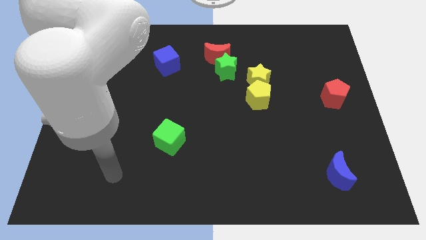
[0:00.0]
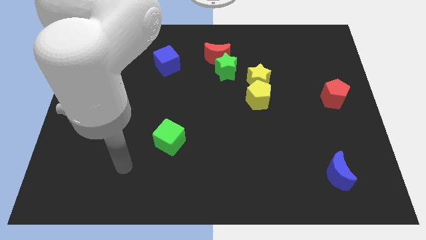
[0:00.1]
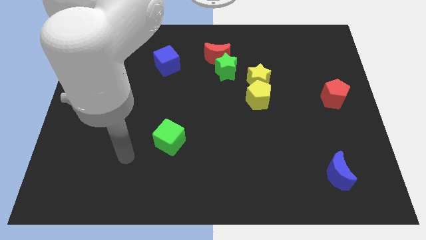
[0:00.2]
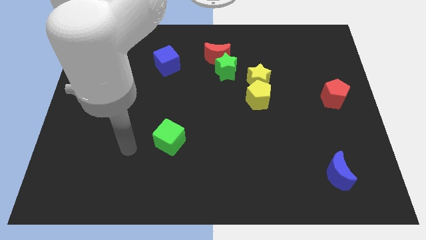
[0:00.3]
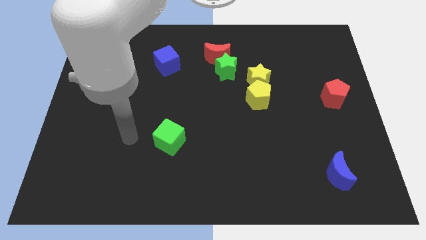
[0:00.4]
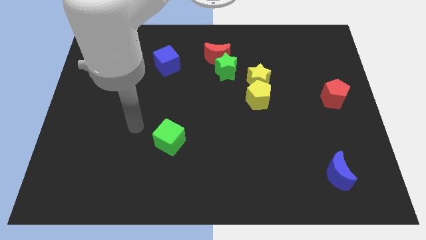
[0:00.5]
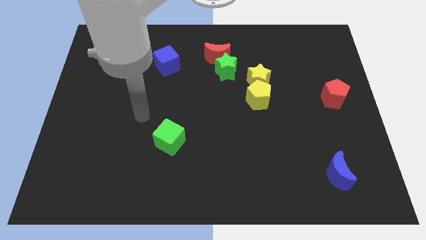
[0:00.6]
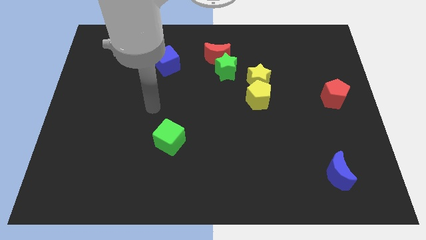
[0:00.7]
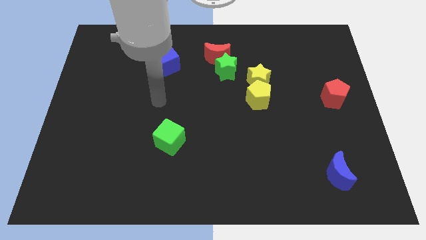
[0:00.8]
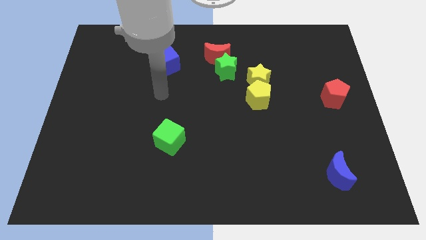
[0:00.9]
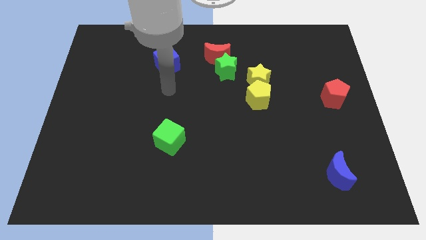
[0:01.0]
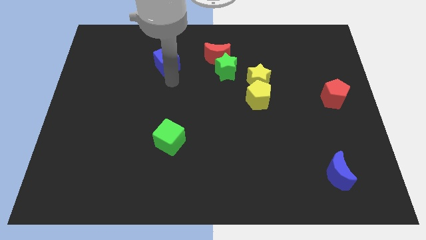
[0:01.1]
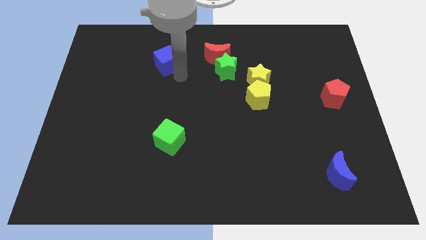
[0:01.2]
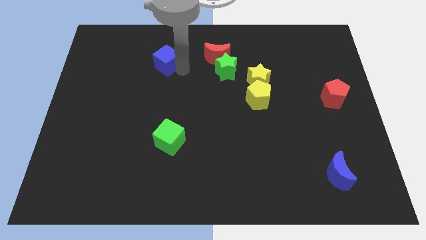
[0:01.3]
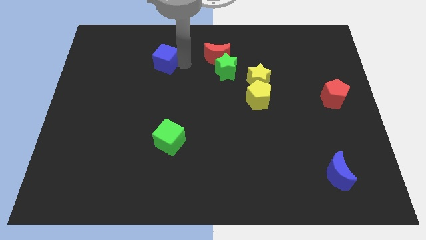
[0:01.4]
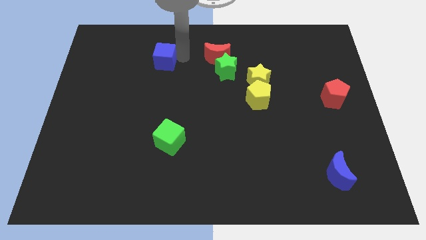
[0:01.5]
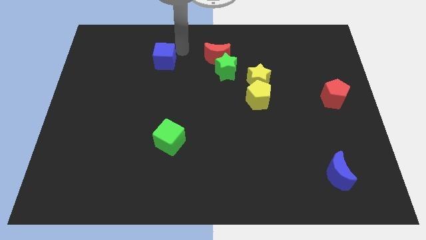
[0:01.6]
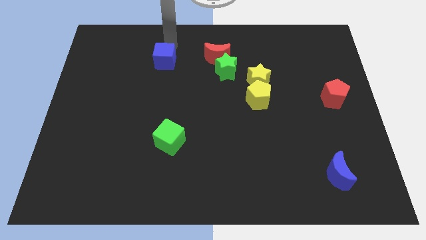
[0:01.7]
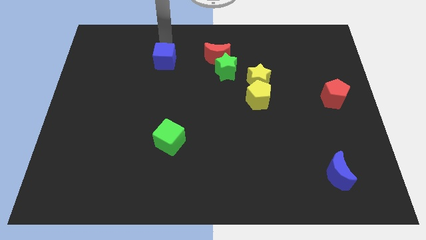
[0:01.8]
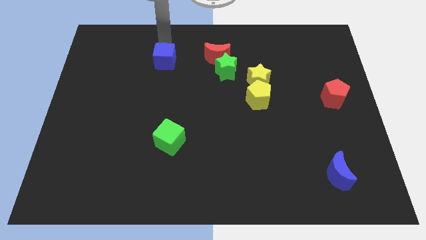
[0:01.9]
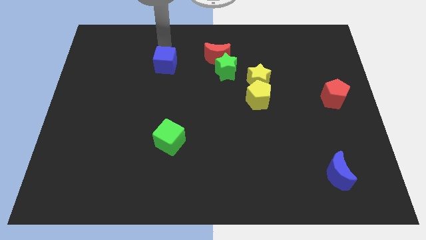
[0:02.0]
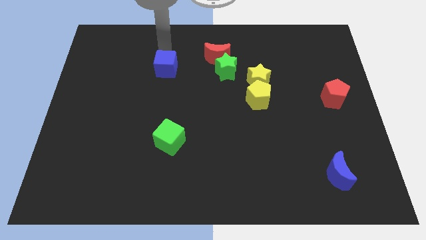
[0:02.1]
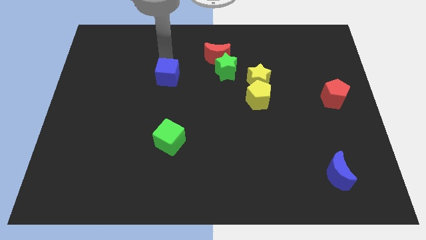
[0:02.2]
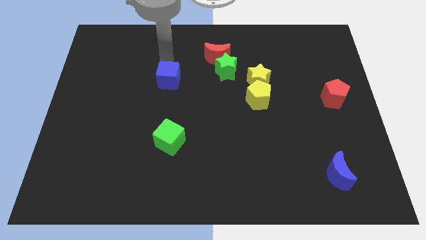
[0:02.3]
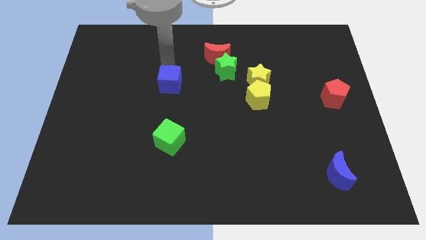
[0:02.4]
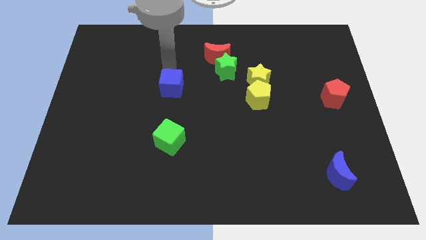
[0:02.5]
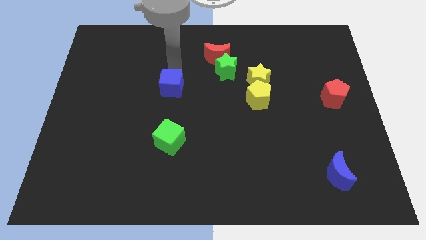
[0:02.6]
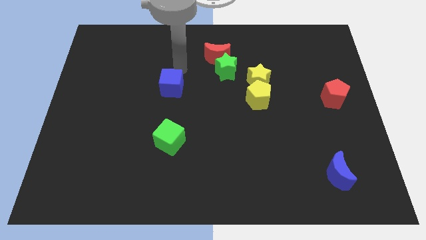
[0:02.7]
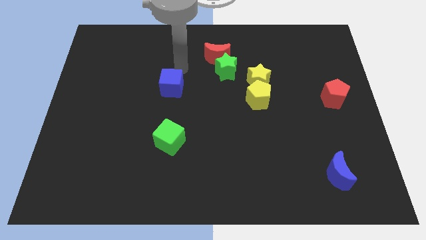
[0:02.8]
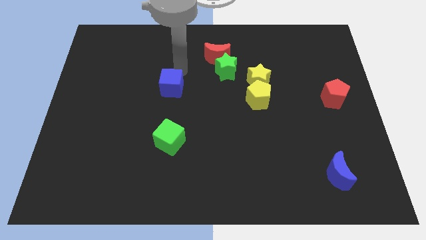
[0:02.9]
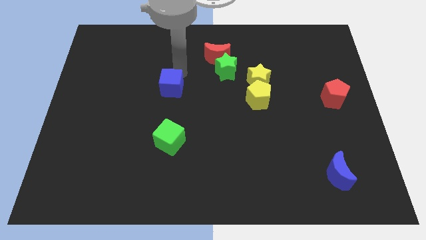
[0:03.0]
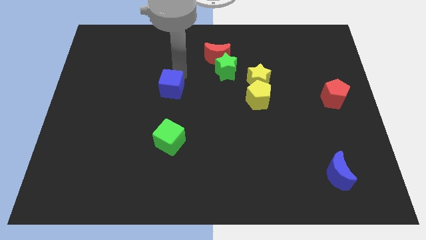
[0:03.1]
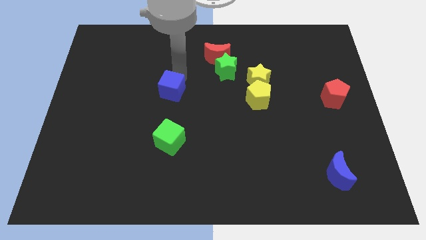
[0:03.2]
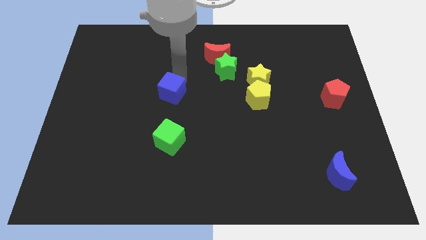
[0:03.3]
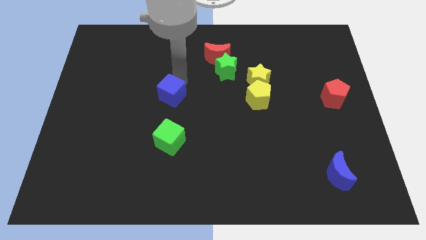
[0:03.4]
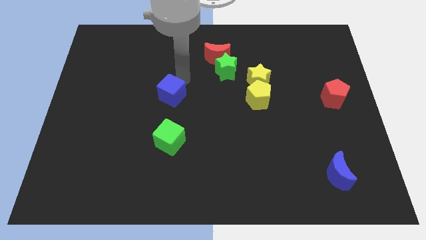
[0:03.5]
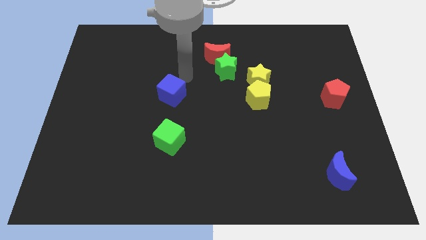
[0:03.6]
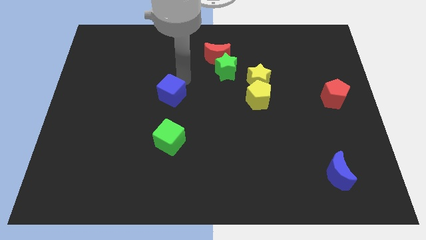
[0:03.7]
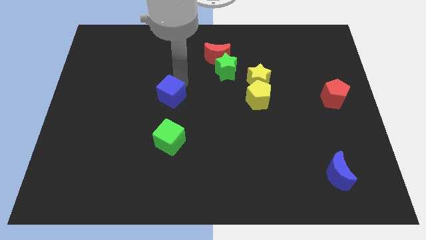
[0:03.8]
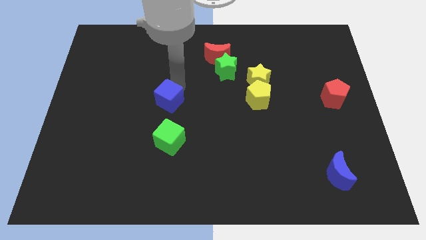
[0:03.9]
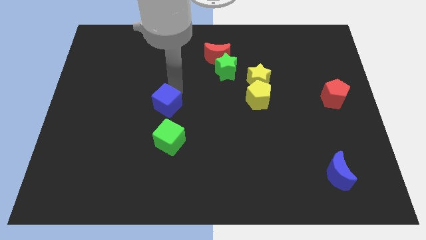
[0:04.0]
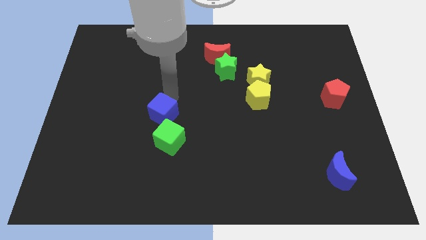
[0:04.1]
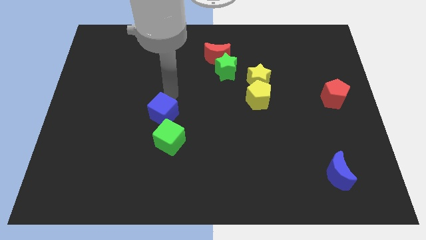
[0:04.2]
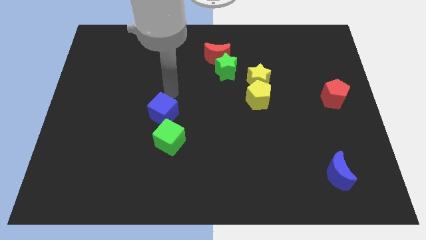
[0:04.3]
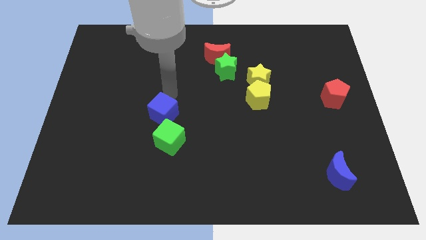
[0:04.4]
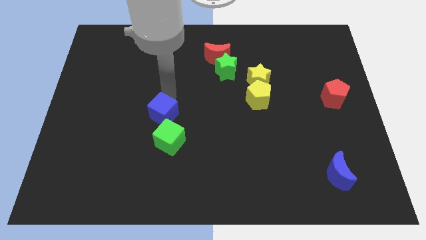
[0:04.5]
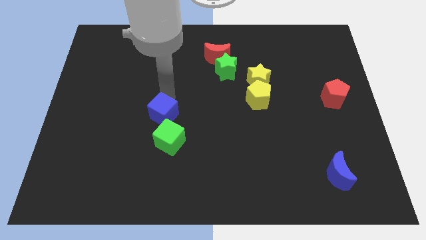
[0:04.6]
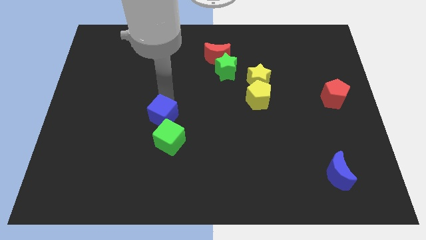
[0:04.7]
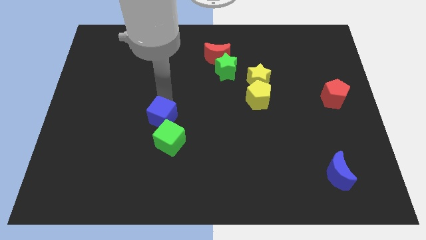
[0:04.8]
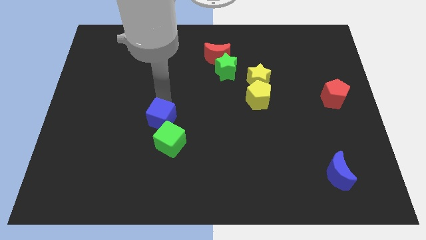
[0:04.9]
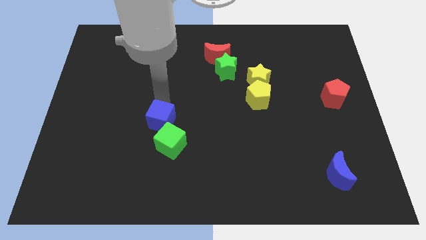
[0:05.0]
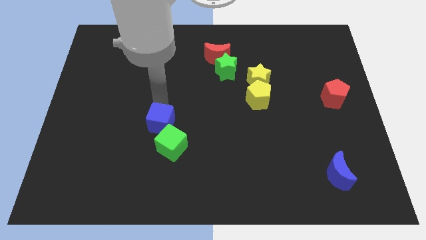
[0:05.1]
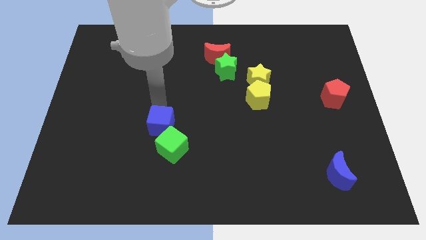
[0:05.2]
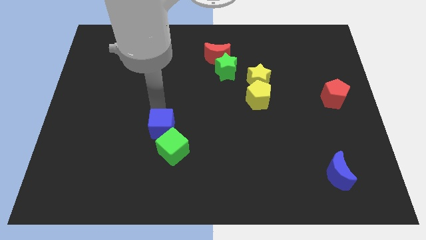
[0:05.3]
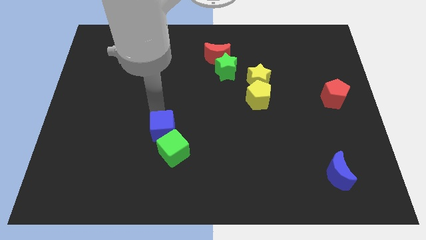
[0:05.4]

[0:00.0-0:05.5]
put the blue cube next to the green cube

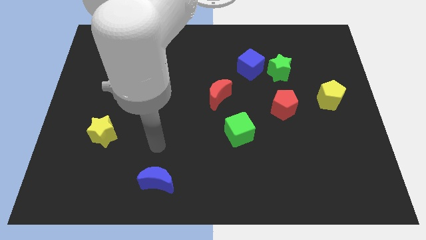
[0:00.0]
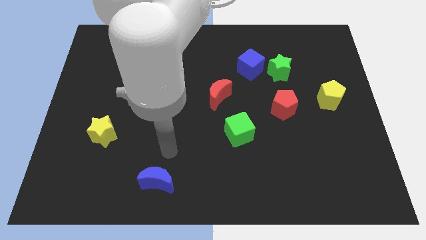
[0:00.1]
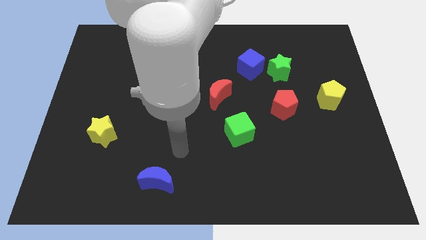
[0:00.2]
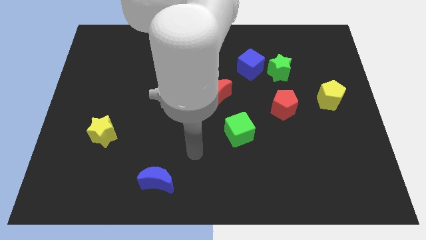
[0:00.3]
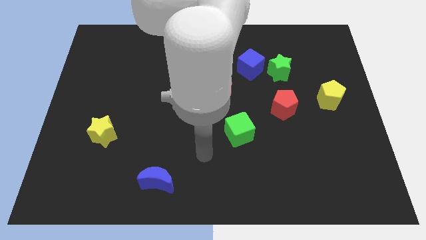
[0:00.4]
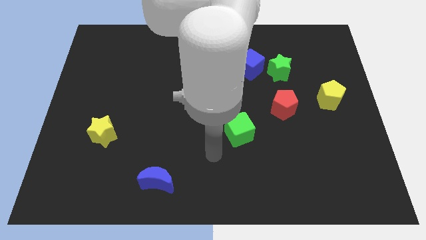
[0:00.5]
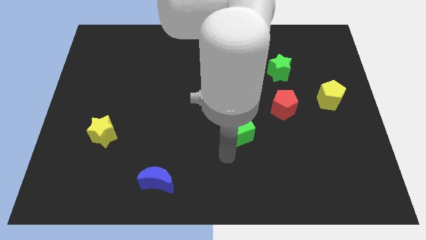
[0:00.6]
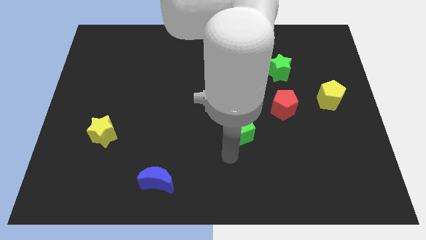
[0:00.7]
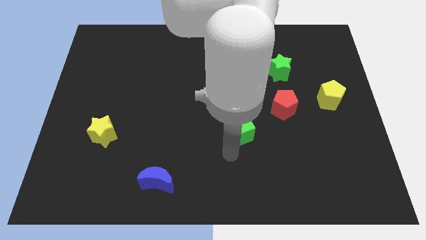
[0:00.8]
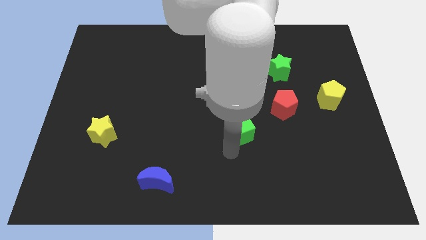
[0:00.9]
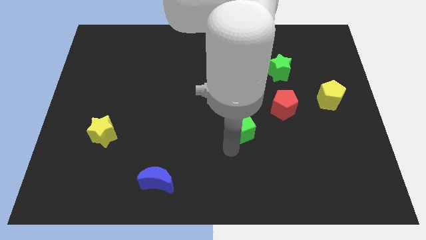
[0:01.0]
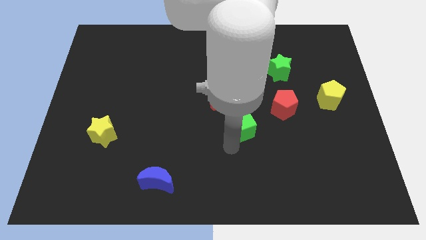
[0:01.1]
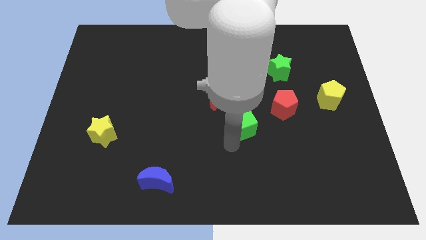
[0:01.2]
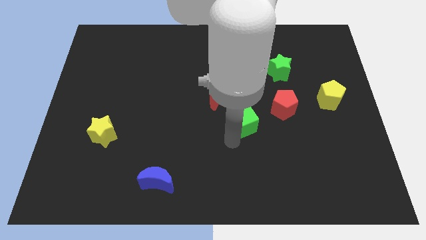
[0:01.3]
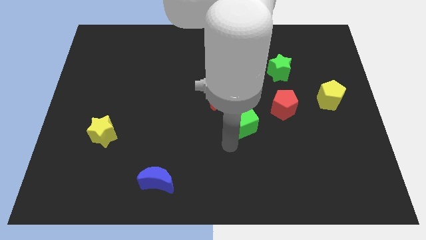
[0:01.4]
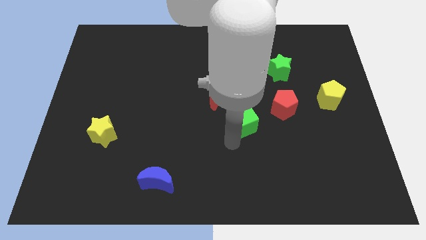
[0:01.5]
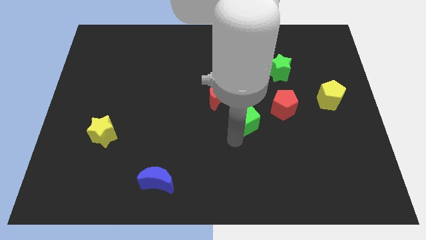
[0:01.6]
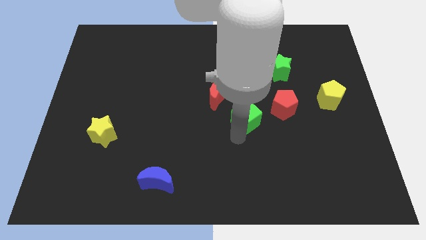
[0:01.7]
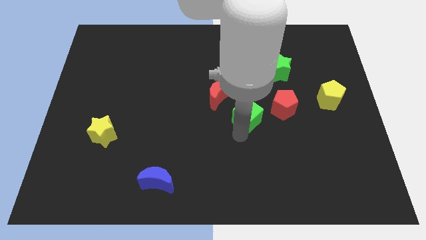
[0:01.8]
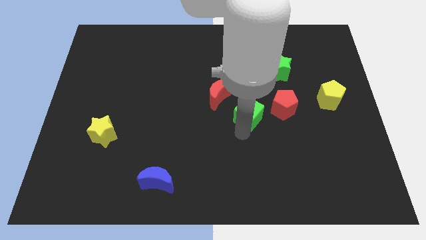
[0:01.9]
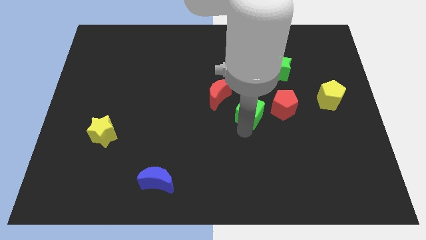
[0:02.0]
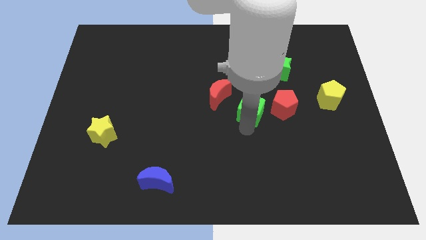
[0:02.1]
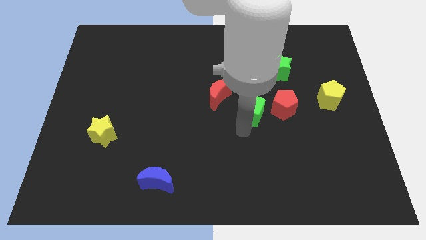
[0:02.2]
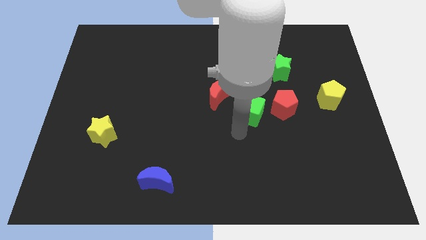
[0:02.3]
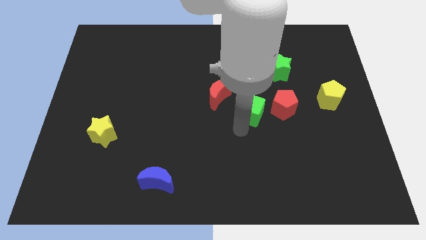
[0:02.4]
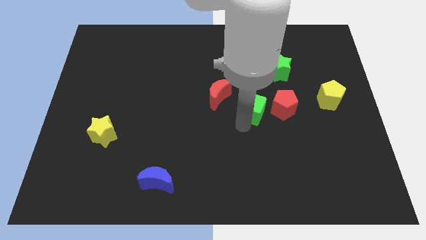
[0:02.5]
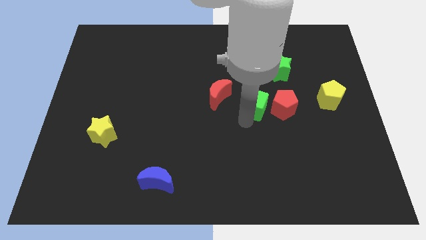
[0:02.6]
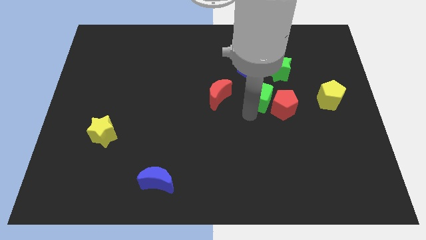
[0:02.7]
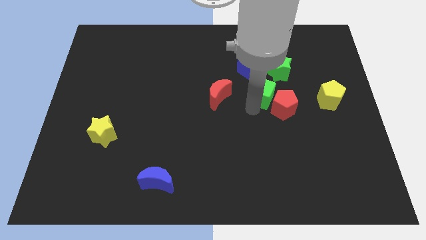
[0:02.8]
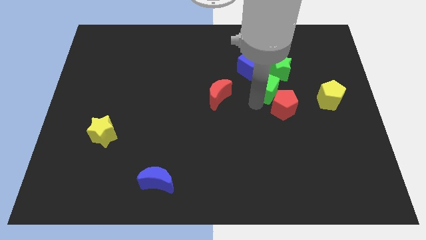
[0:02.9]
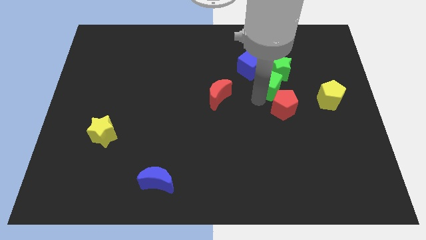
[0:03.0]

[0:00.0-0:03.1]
put the green cube next to the green star
